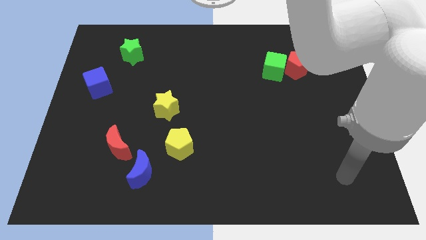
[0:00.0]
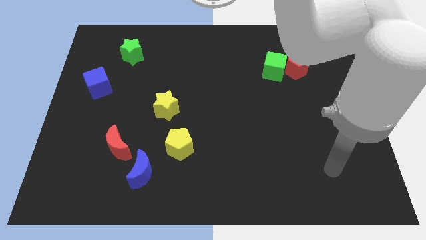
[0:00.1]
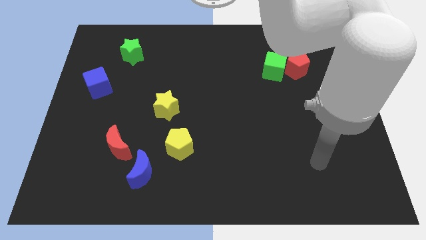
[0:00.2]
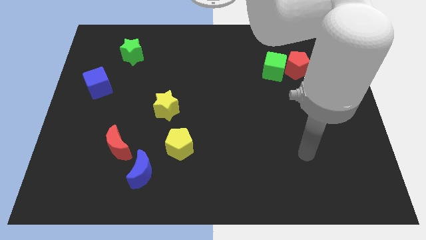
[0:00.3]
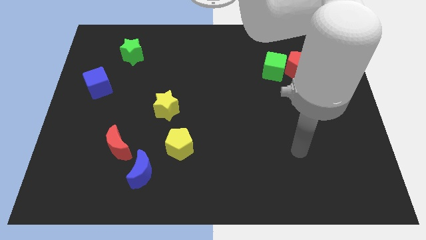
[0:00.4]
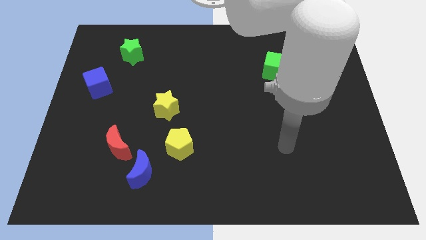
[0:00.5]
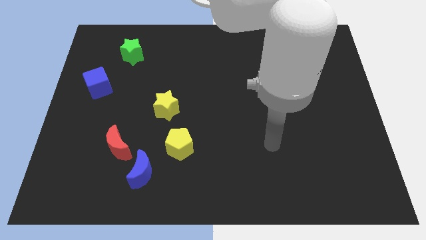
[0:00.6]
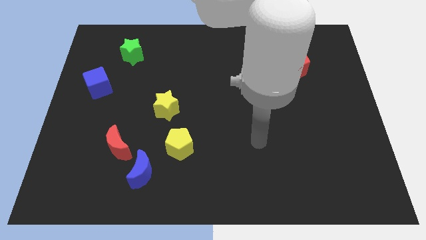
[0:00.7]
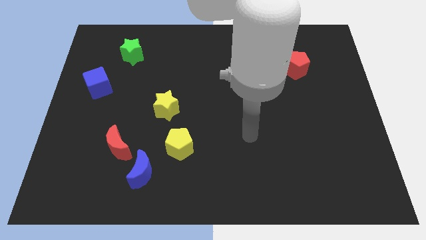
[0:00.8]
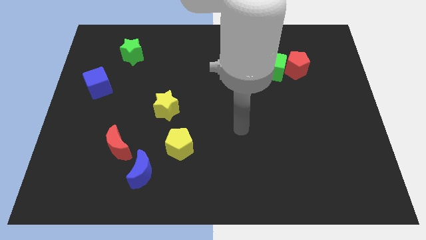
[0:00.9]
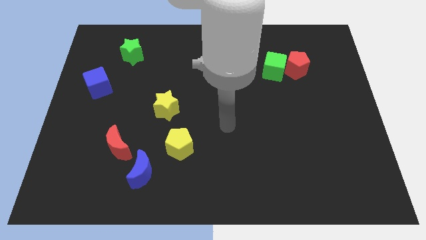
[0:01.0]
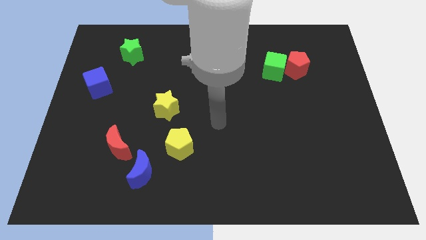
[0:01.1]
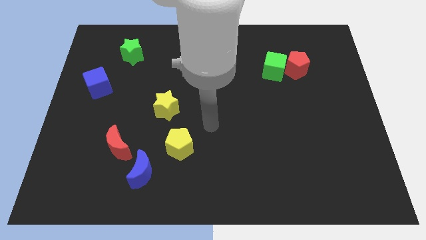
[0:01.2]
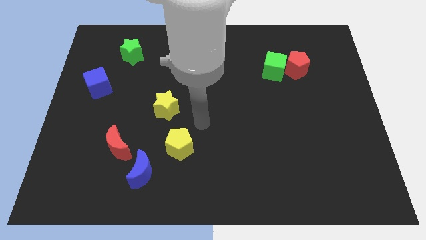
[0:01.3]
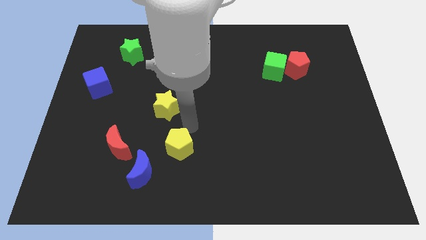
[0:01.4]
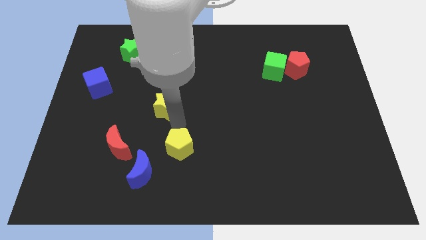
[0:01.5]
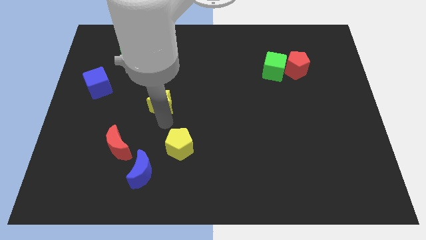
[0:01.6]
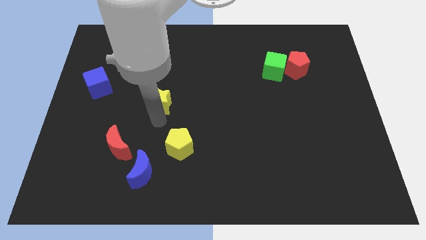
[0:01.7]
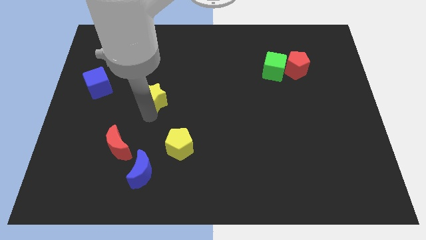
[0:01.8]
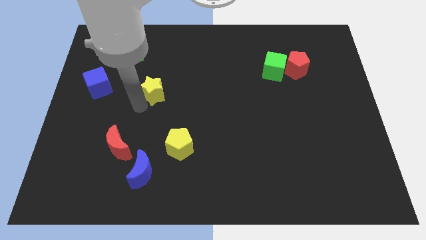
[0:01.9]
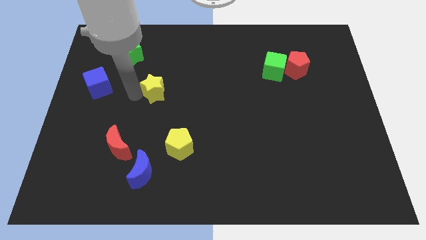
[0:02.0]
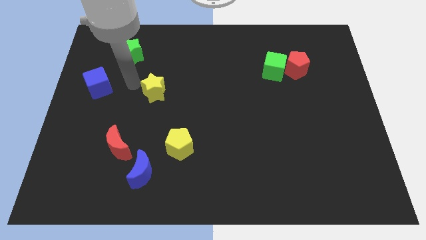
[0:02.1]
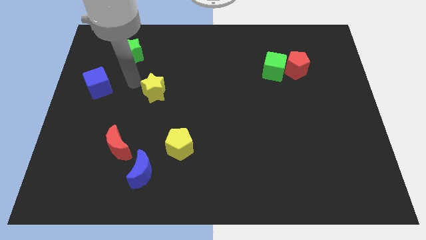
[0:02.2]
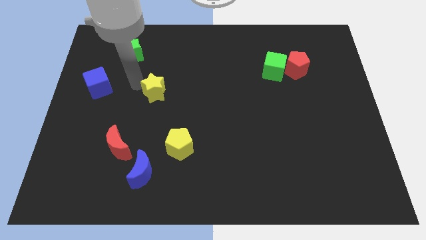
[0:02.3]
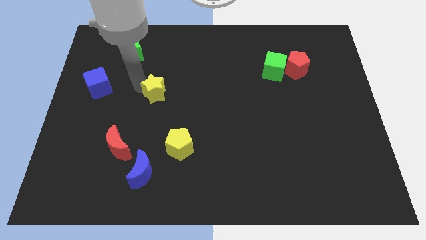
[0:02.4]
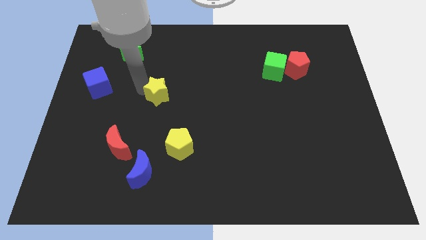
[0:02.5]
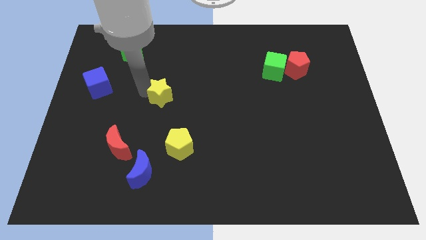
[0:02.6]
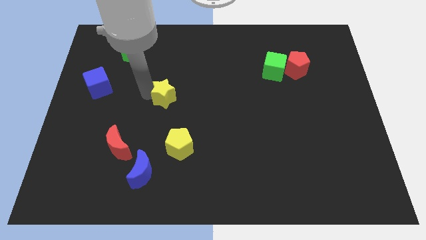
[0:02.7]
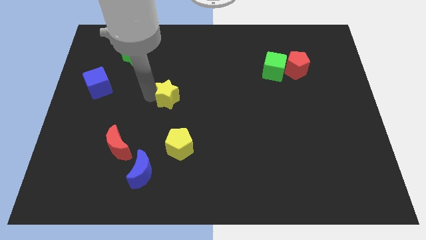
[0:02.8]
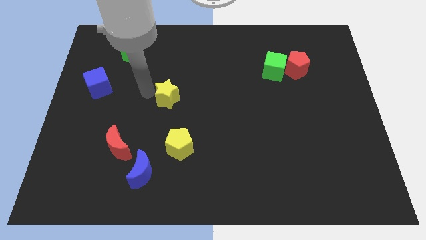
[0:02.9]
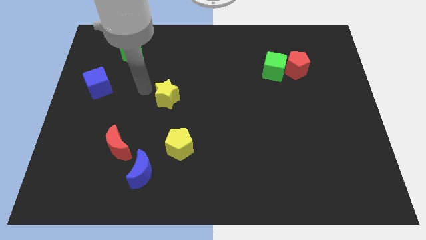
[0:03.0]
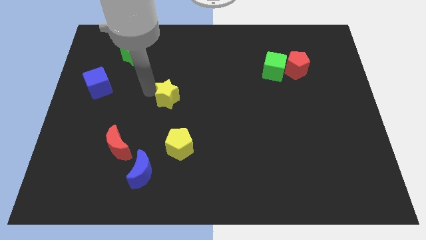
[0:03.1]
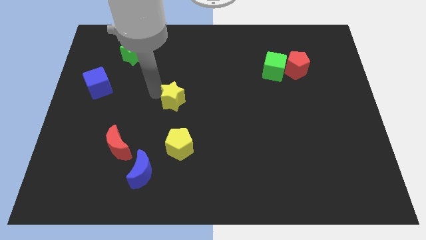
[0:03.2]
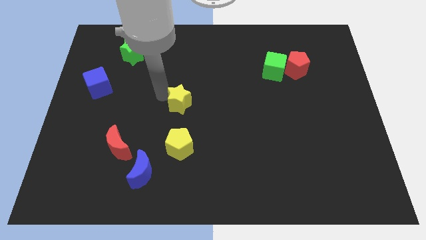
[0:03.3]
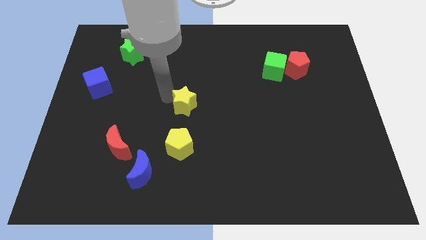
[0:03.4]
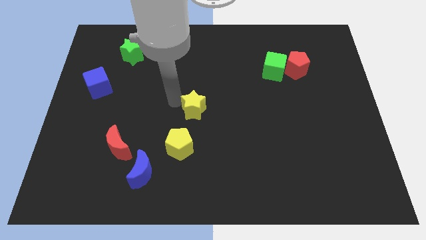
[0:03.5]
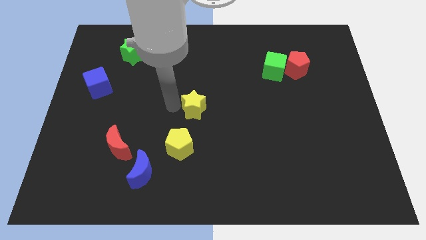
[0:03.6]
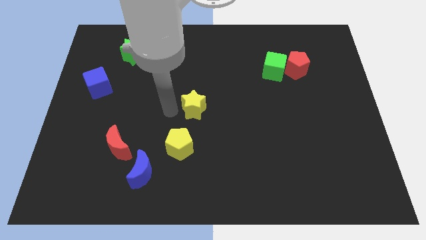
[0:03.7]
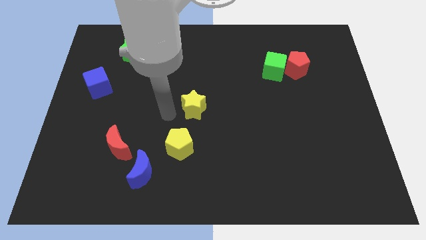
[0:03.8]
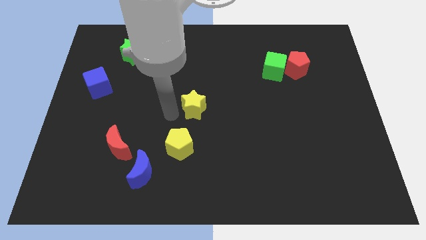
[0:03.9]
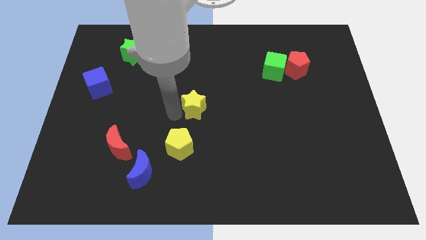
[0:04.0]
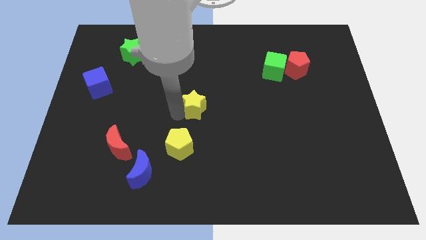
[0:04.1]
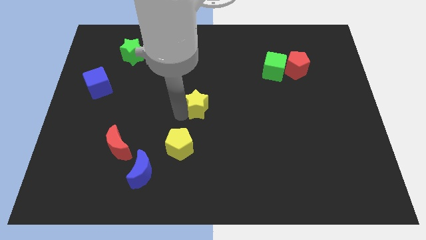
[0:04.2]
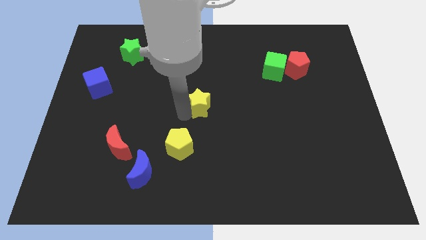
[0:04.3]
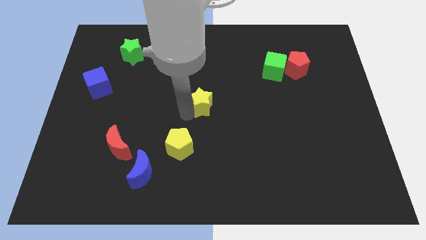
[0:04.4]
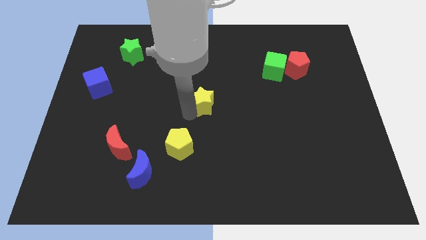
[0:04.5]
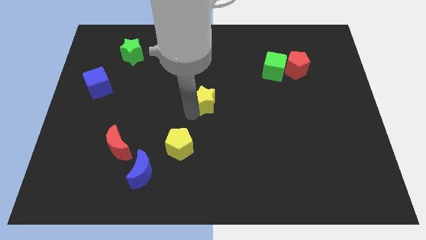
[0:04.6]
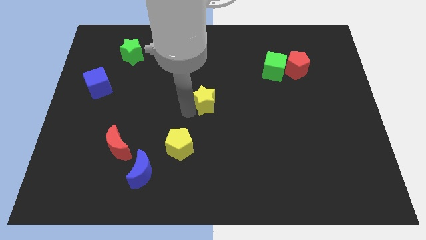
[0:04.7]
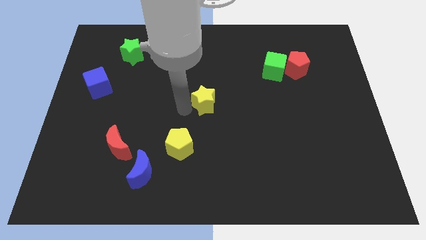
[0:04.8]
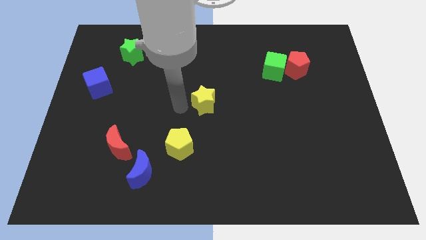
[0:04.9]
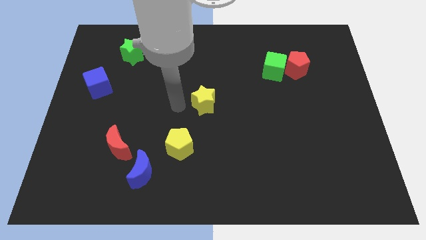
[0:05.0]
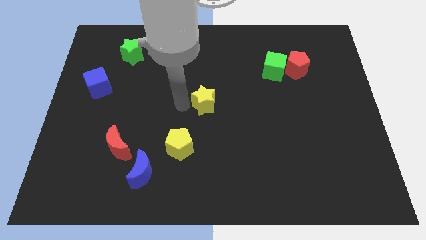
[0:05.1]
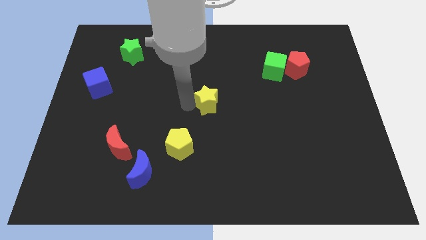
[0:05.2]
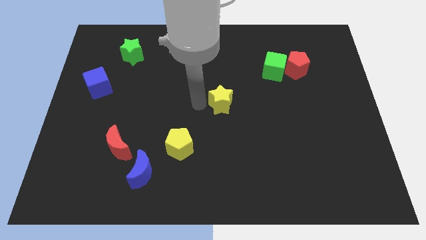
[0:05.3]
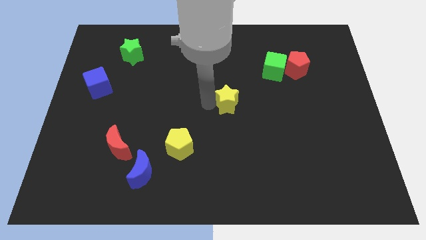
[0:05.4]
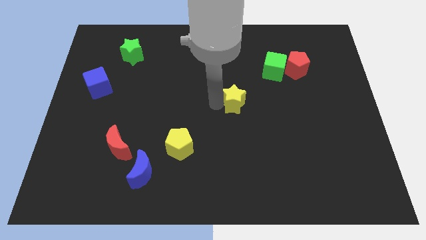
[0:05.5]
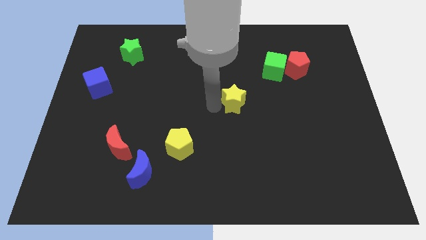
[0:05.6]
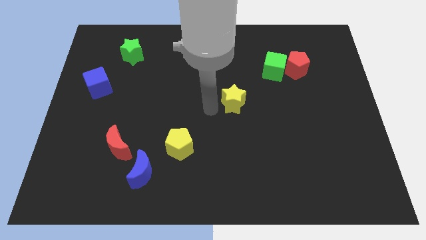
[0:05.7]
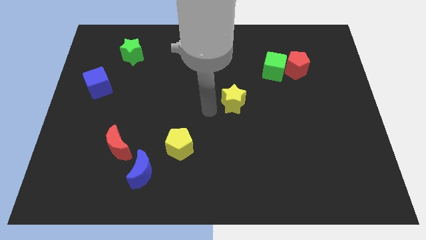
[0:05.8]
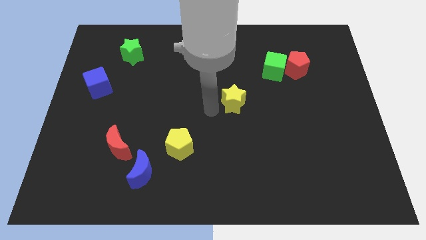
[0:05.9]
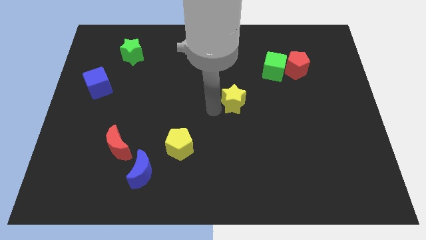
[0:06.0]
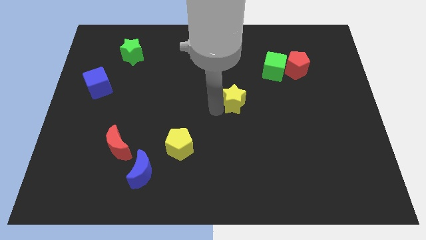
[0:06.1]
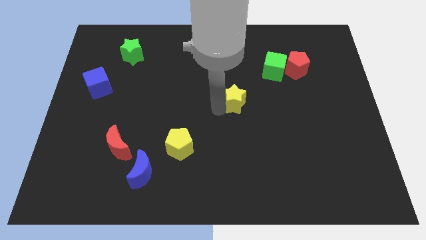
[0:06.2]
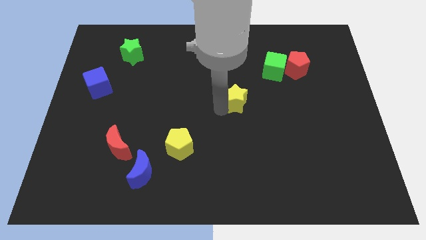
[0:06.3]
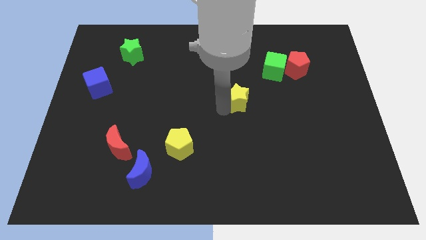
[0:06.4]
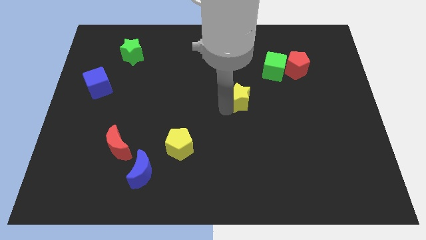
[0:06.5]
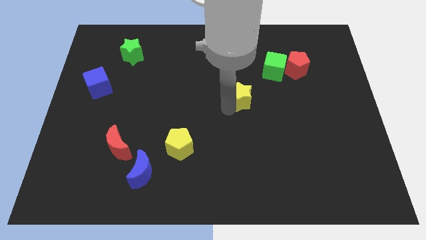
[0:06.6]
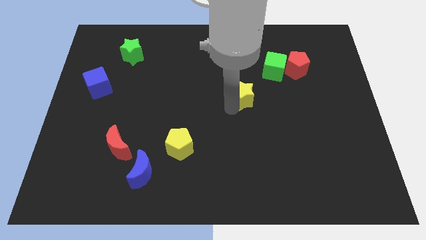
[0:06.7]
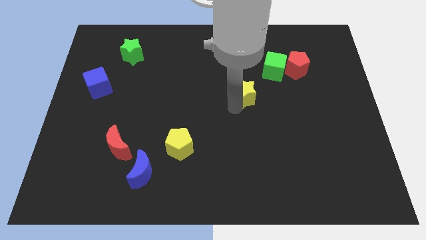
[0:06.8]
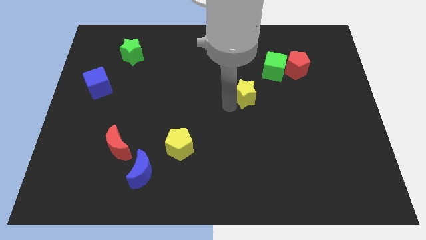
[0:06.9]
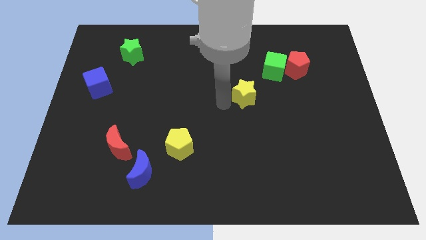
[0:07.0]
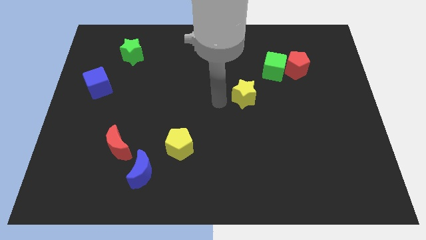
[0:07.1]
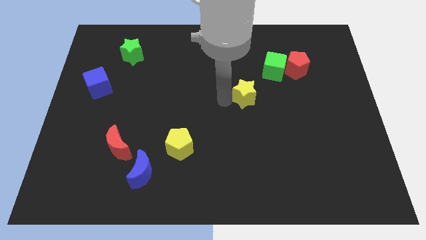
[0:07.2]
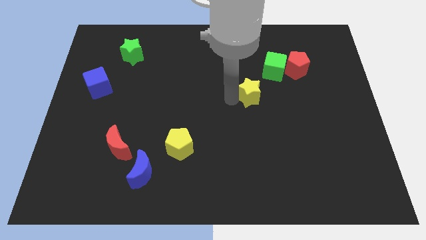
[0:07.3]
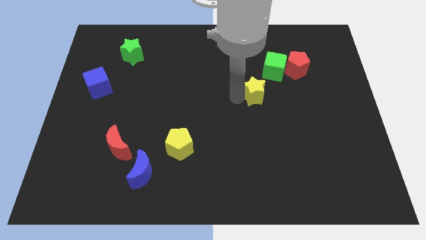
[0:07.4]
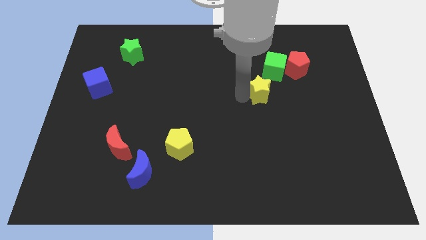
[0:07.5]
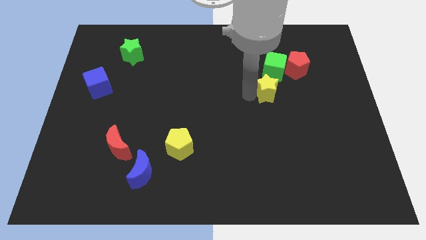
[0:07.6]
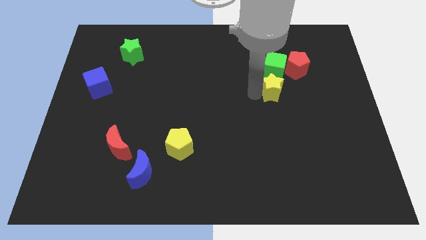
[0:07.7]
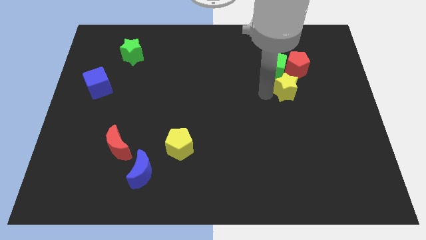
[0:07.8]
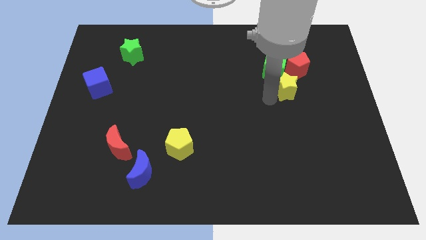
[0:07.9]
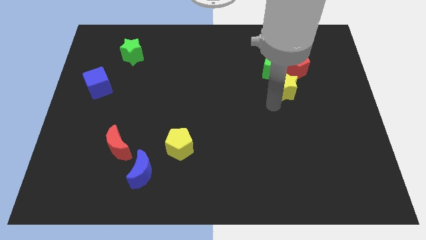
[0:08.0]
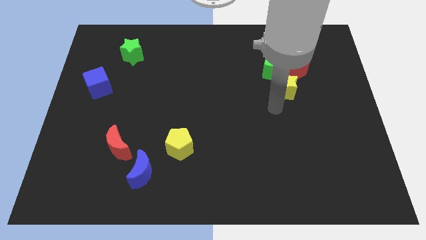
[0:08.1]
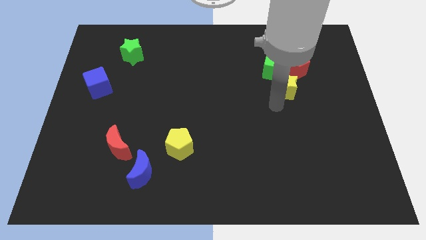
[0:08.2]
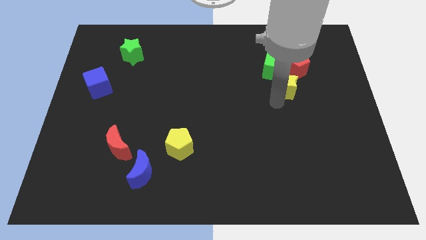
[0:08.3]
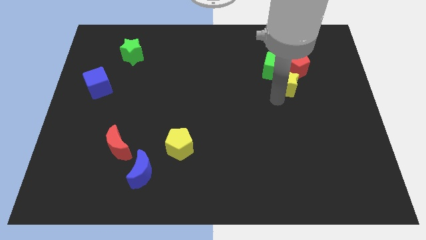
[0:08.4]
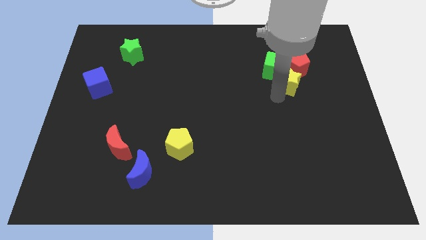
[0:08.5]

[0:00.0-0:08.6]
move the yellow star close to the red pentagon
